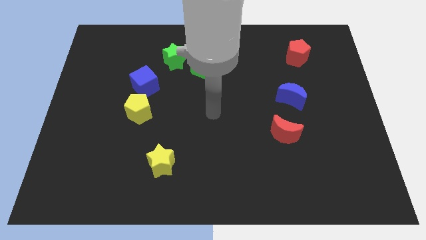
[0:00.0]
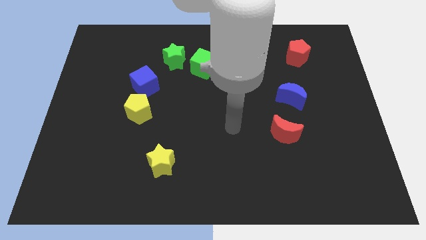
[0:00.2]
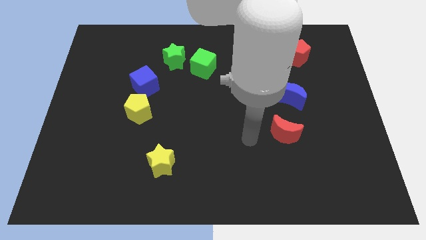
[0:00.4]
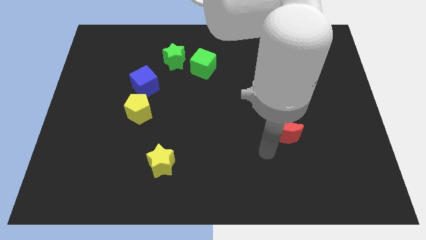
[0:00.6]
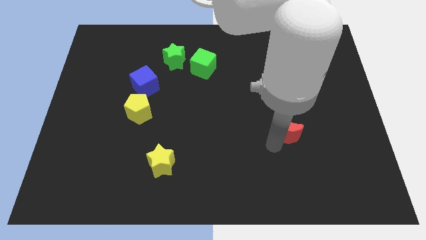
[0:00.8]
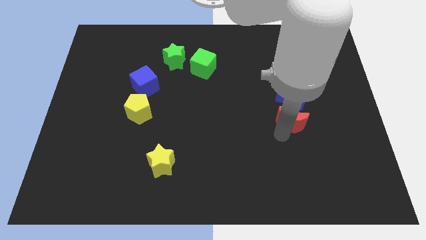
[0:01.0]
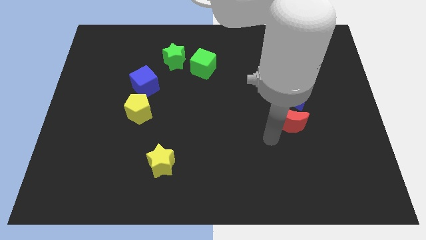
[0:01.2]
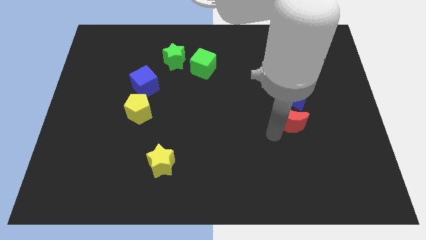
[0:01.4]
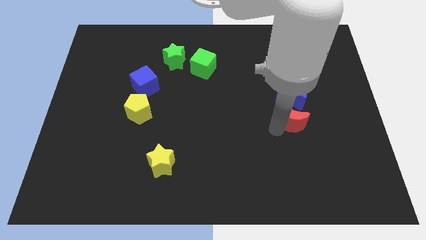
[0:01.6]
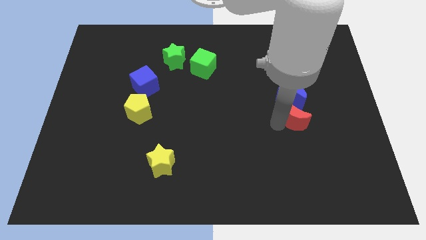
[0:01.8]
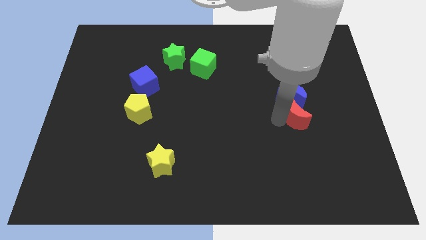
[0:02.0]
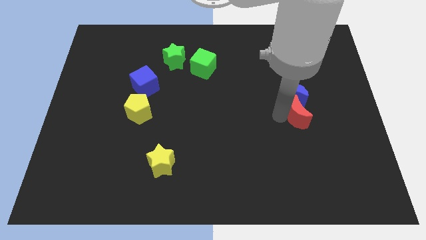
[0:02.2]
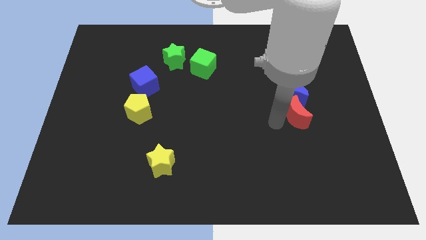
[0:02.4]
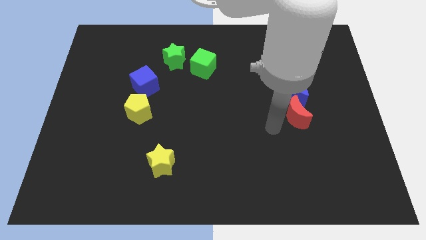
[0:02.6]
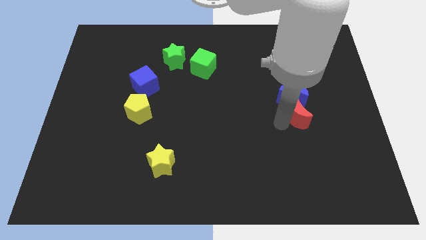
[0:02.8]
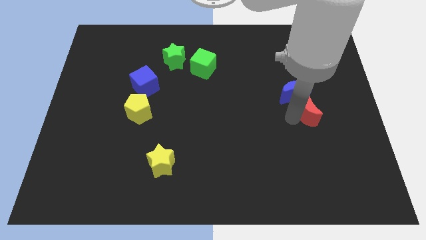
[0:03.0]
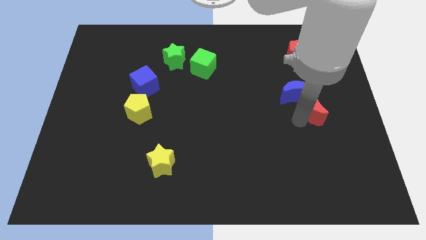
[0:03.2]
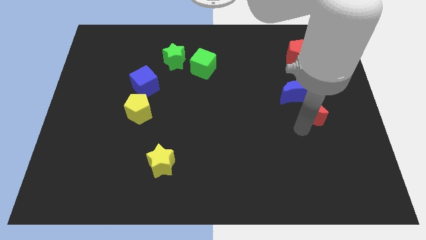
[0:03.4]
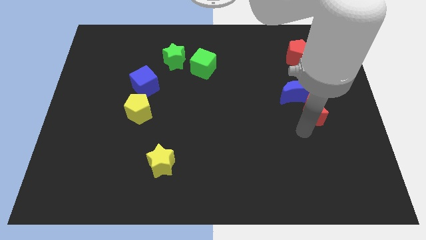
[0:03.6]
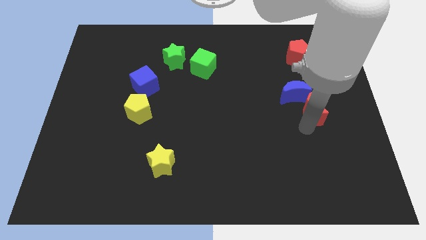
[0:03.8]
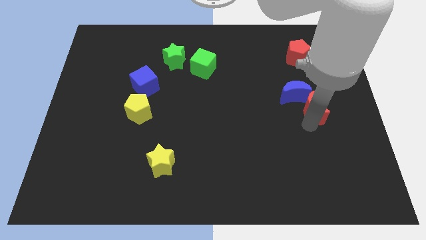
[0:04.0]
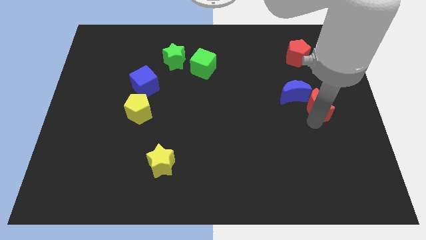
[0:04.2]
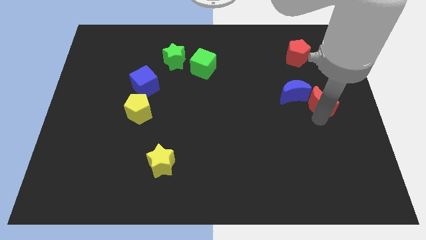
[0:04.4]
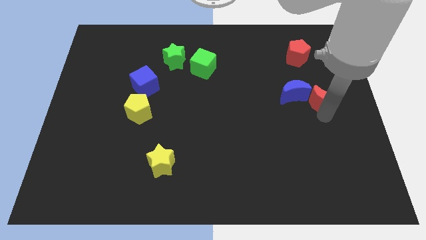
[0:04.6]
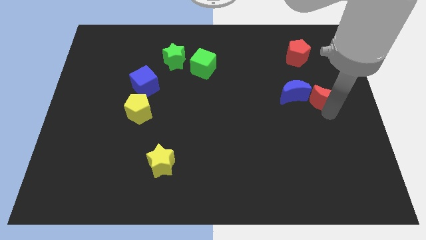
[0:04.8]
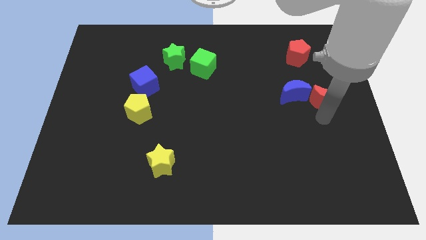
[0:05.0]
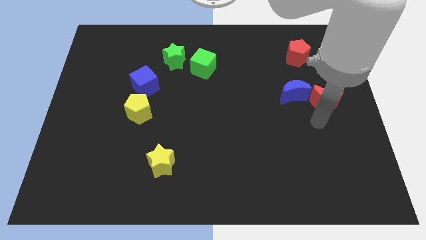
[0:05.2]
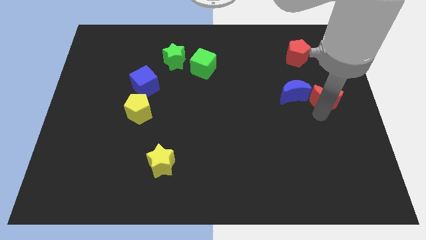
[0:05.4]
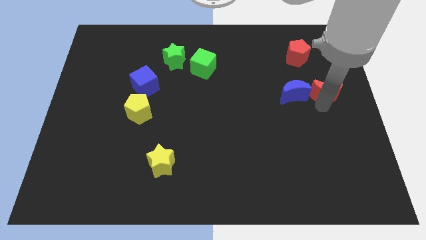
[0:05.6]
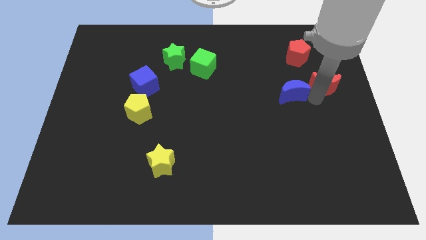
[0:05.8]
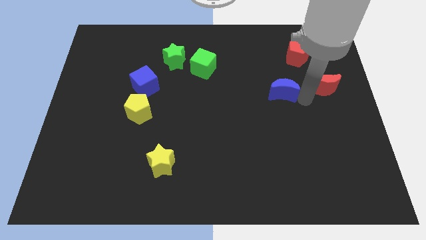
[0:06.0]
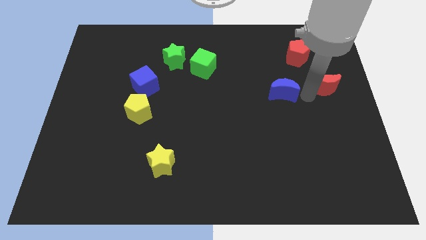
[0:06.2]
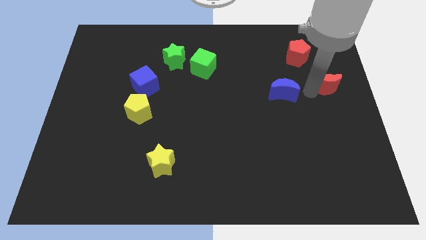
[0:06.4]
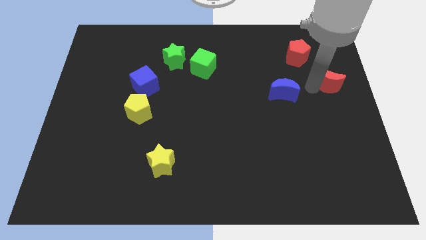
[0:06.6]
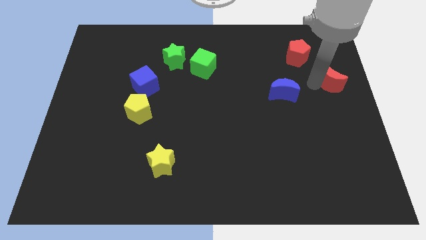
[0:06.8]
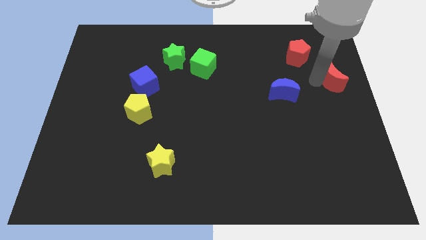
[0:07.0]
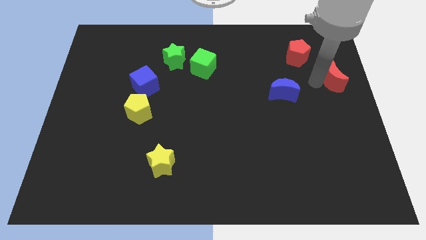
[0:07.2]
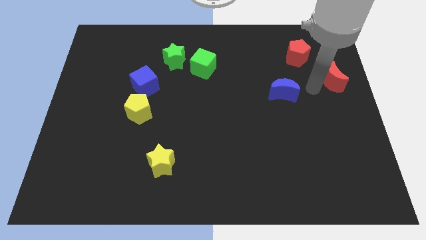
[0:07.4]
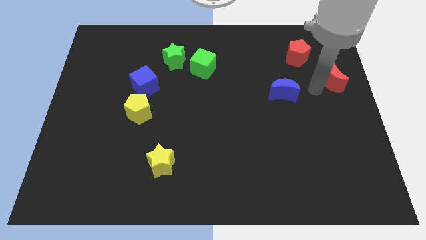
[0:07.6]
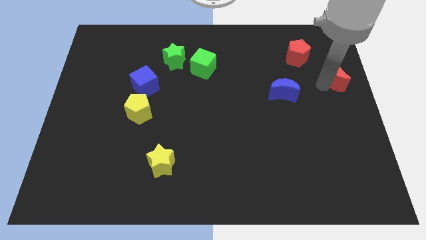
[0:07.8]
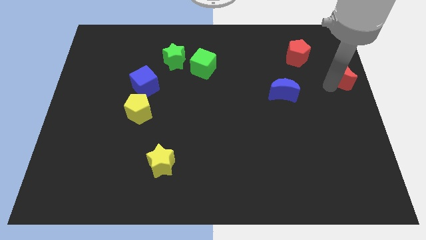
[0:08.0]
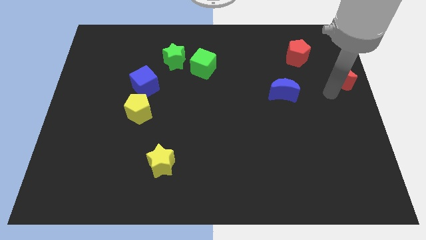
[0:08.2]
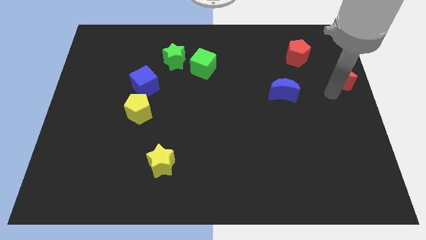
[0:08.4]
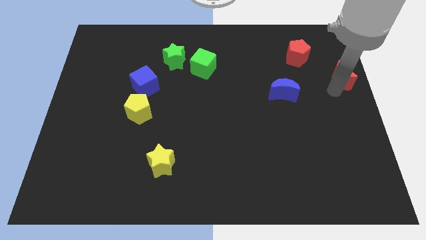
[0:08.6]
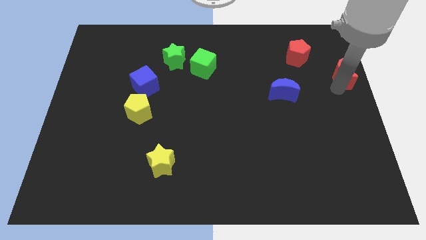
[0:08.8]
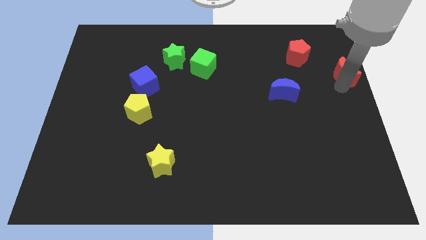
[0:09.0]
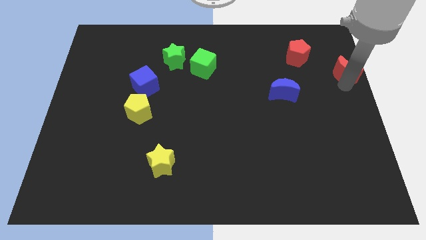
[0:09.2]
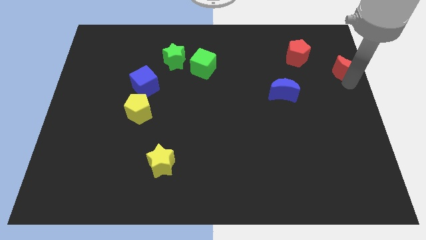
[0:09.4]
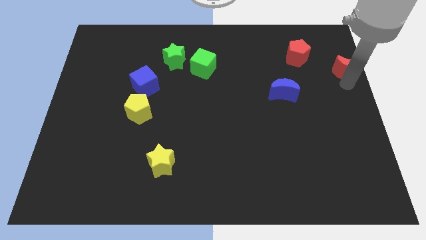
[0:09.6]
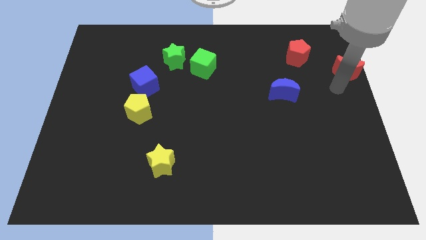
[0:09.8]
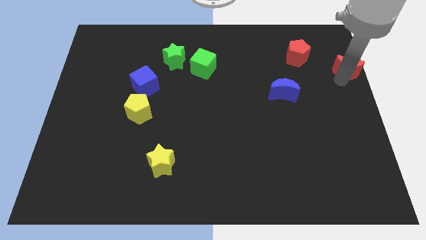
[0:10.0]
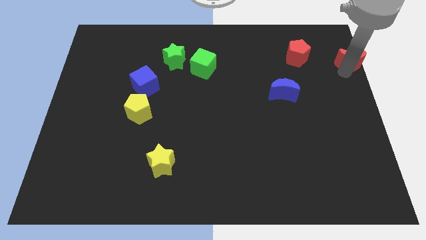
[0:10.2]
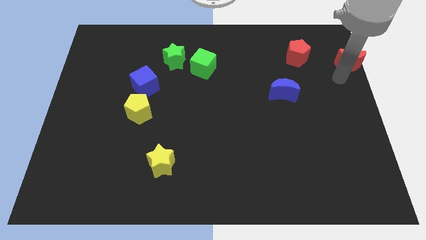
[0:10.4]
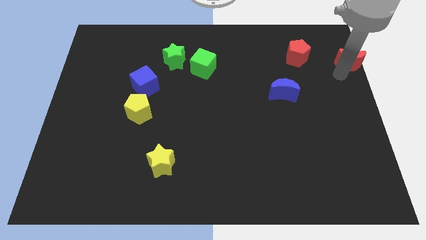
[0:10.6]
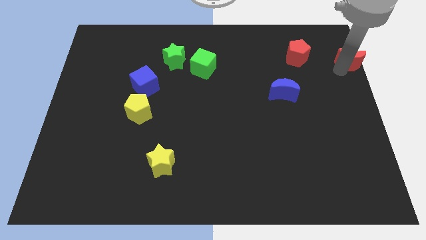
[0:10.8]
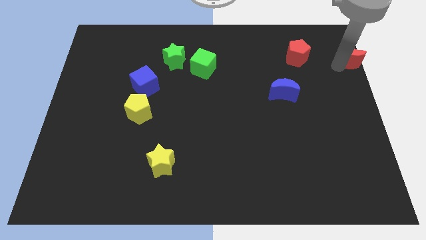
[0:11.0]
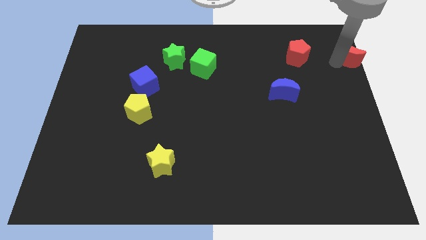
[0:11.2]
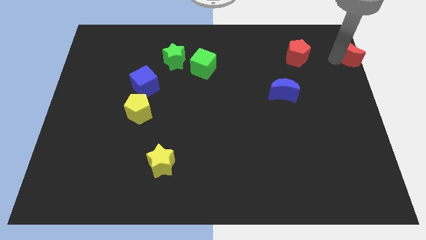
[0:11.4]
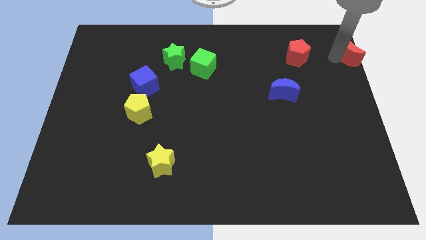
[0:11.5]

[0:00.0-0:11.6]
move the red moon to the top right corner

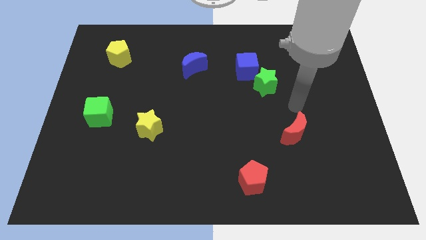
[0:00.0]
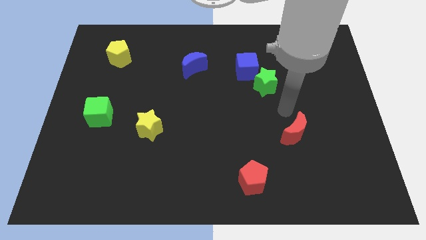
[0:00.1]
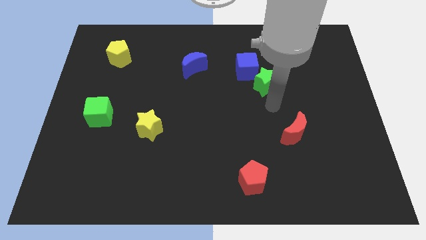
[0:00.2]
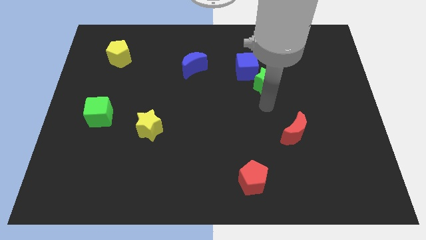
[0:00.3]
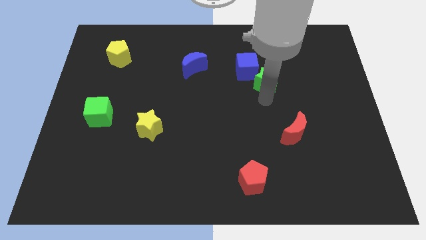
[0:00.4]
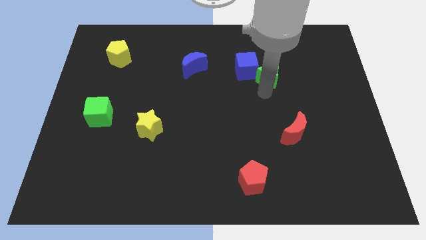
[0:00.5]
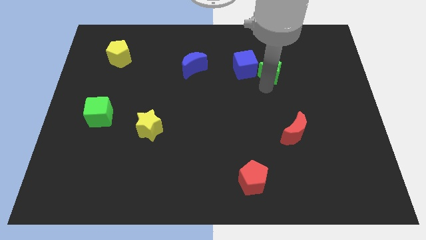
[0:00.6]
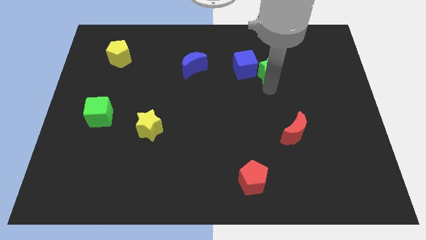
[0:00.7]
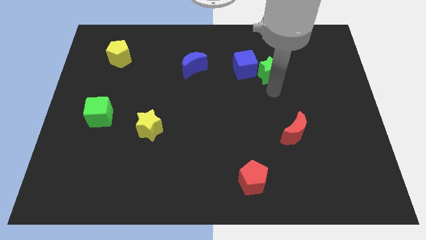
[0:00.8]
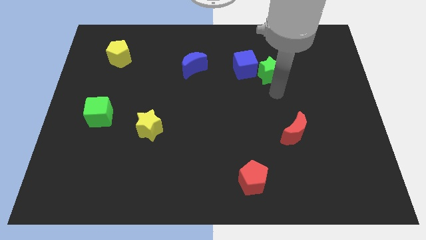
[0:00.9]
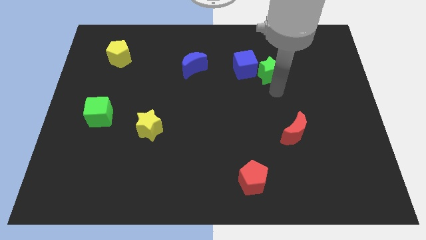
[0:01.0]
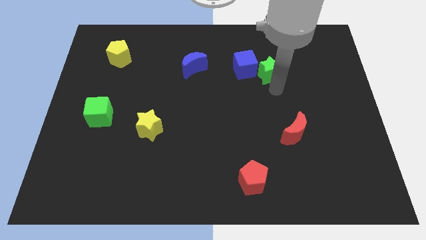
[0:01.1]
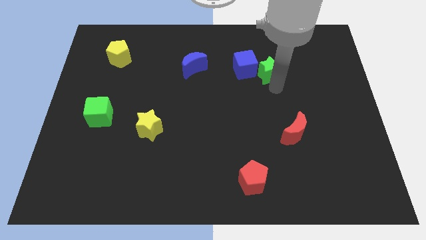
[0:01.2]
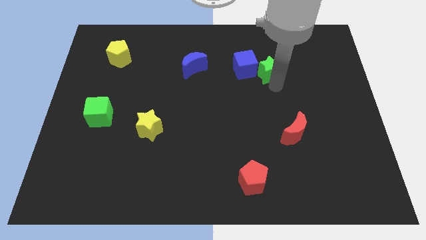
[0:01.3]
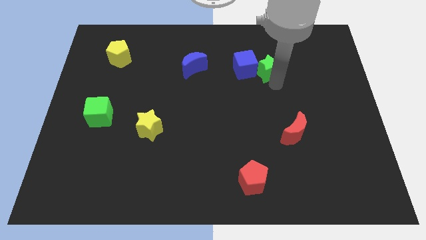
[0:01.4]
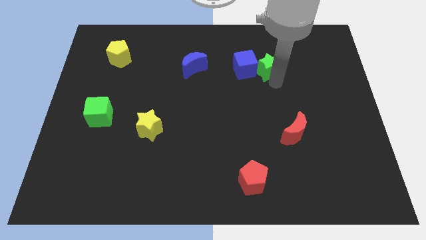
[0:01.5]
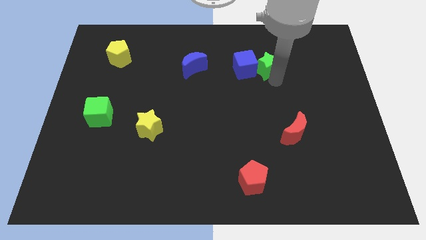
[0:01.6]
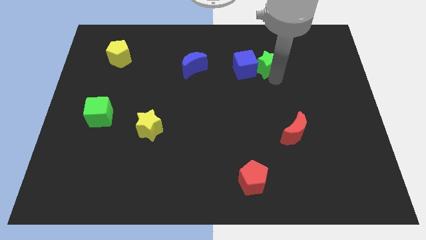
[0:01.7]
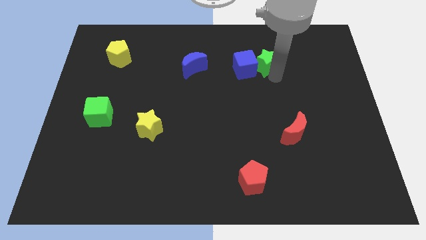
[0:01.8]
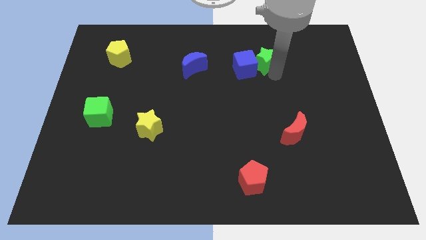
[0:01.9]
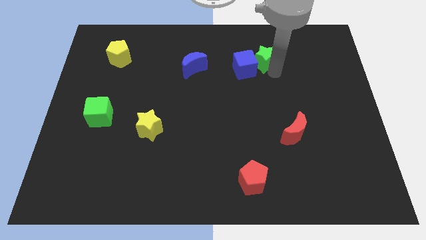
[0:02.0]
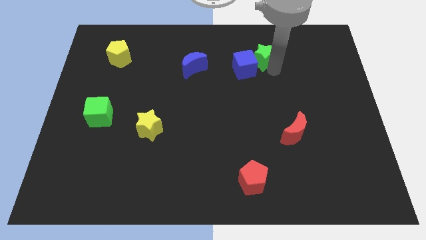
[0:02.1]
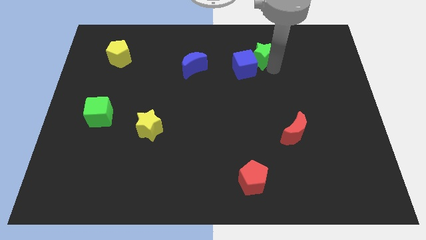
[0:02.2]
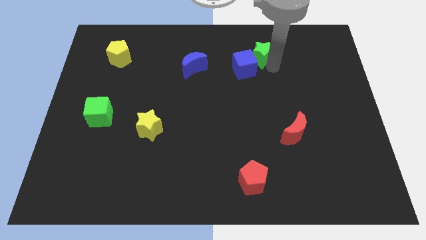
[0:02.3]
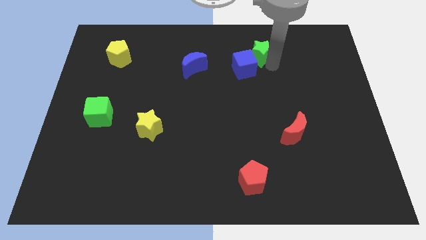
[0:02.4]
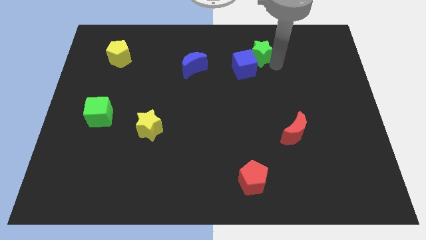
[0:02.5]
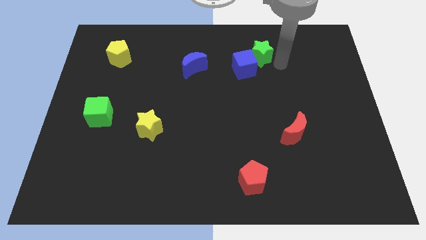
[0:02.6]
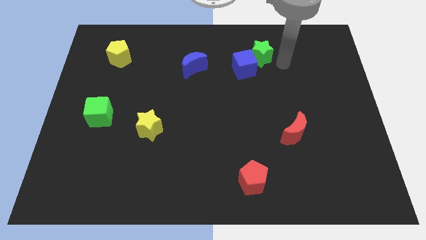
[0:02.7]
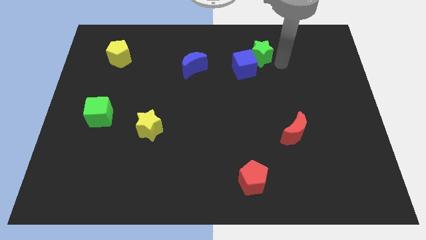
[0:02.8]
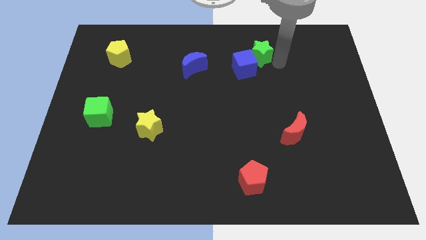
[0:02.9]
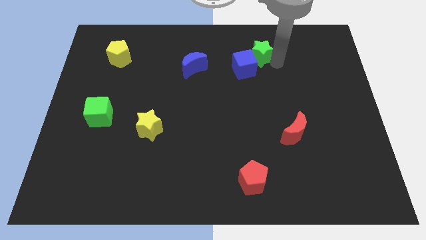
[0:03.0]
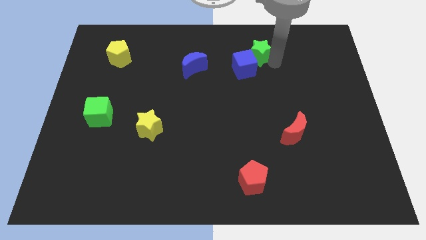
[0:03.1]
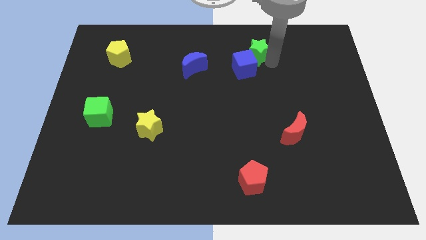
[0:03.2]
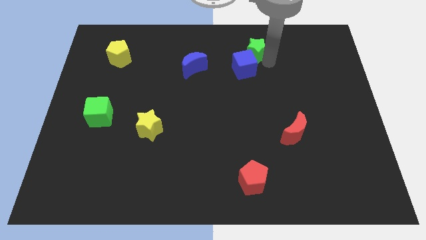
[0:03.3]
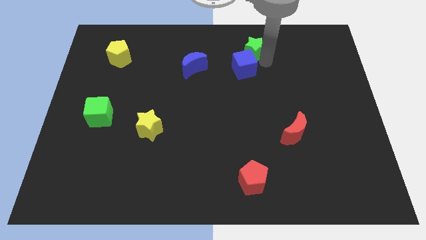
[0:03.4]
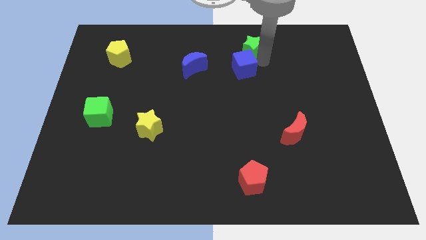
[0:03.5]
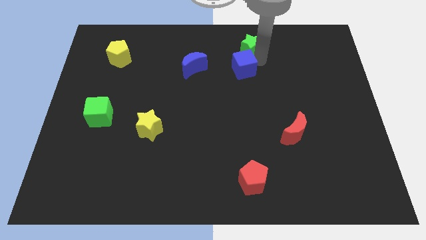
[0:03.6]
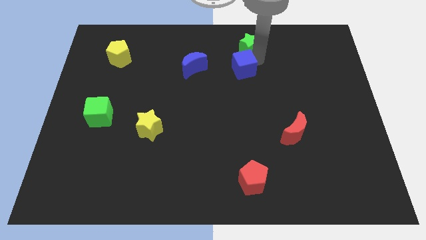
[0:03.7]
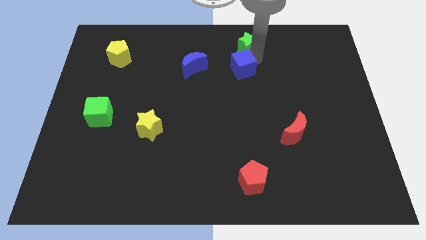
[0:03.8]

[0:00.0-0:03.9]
push the green star to the towards your base
